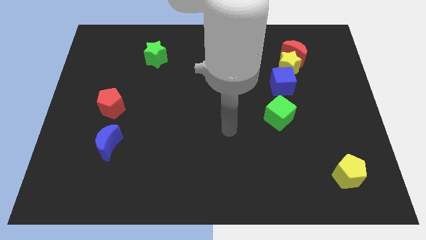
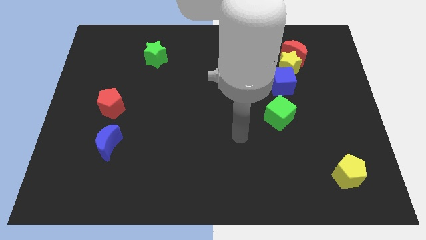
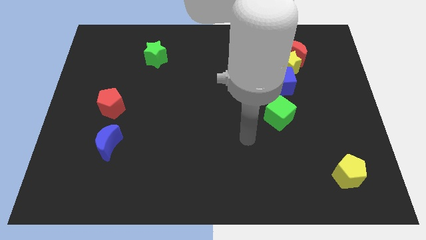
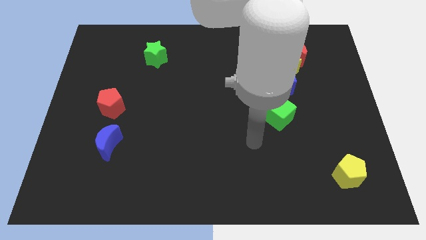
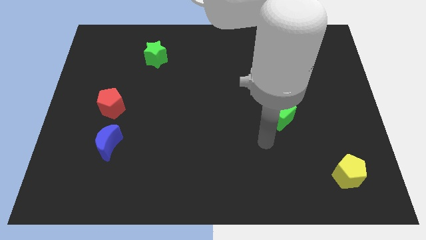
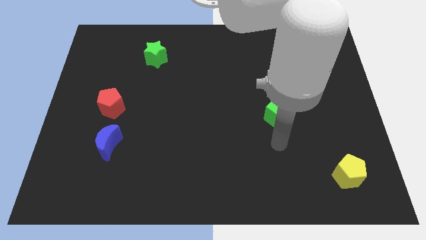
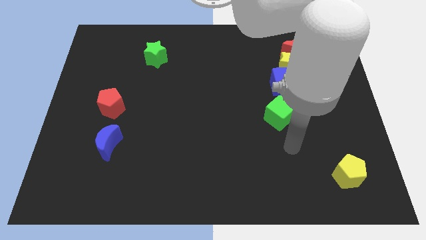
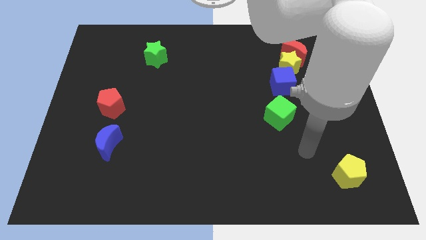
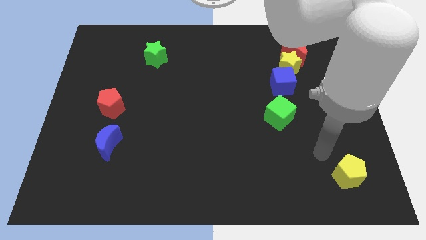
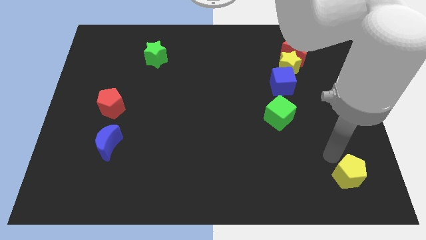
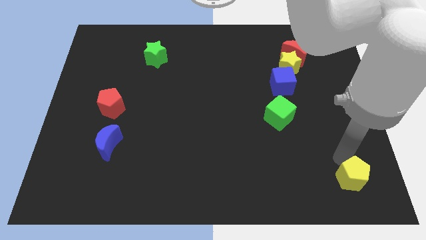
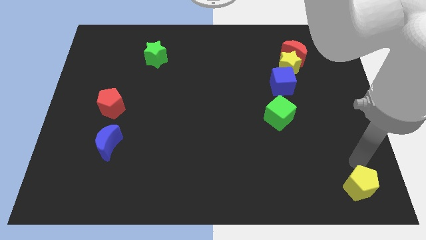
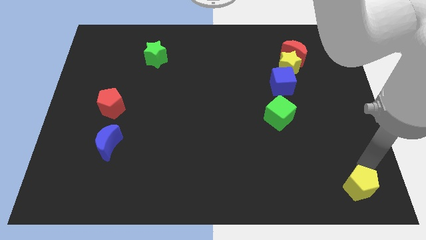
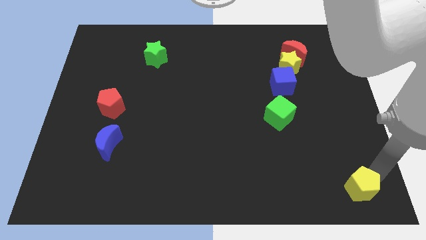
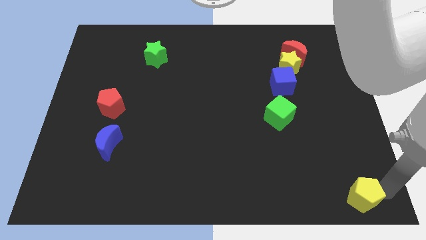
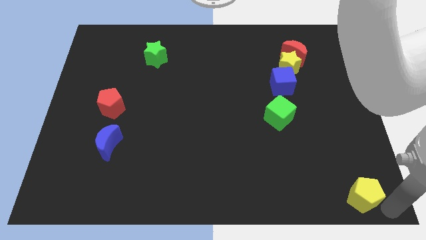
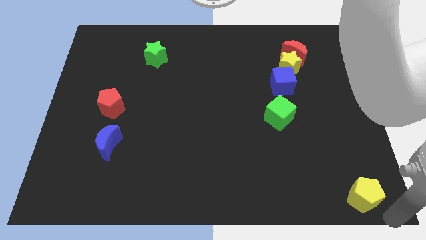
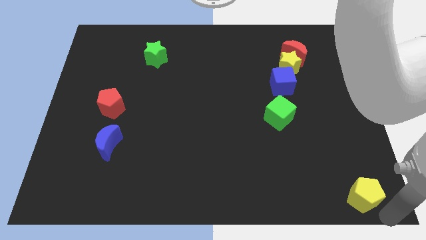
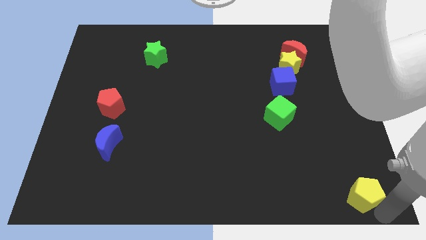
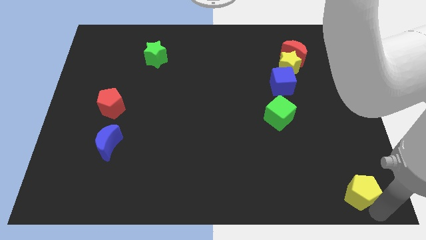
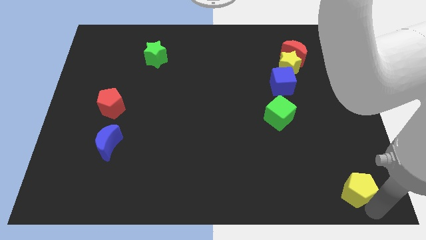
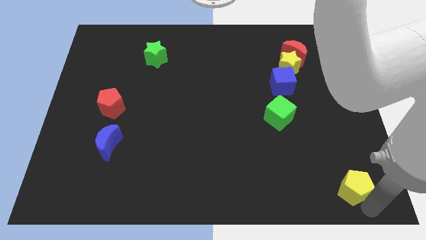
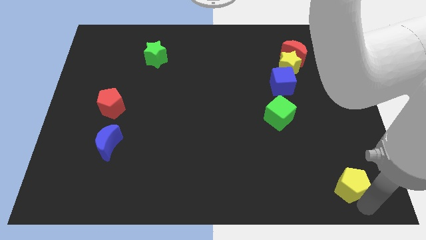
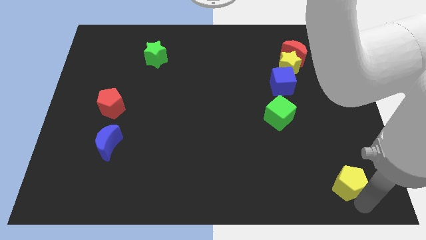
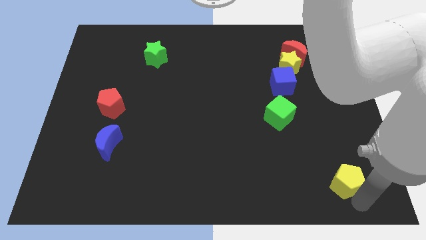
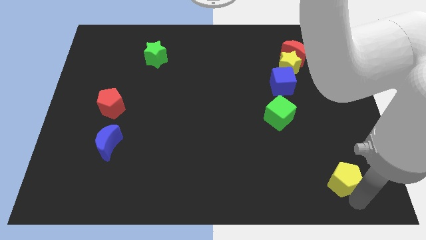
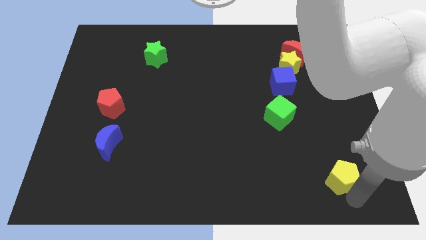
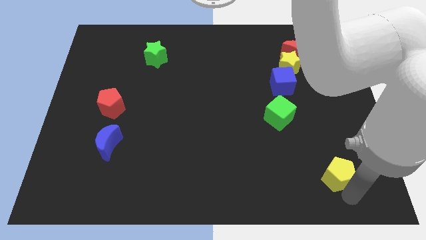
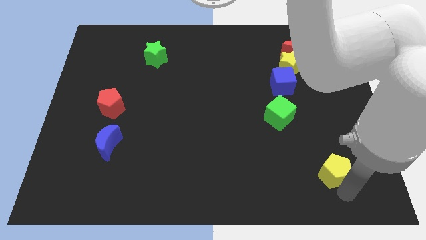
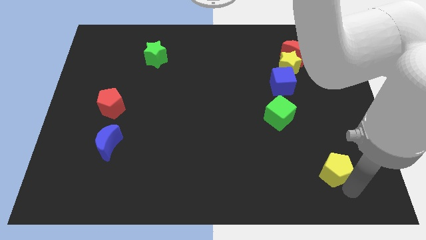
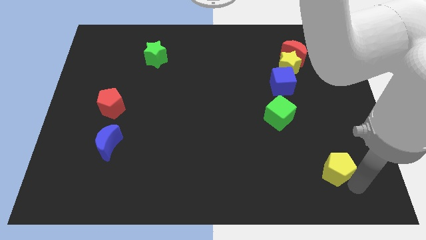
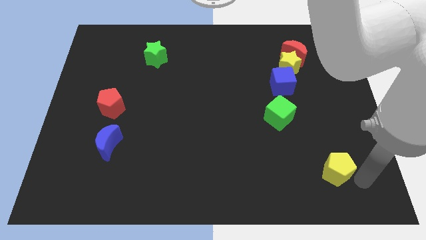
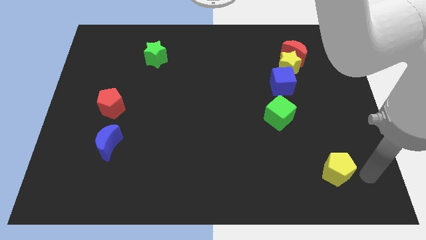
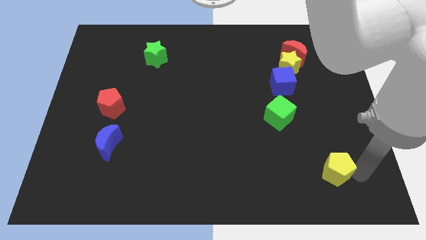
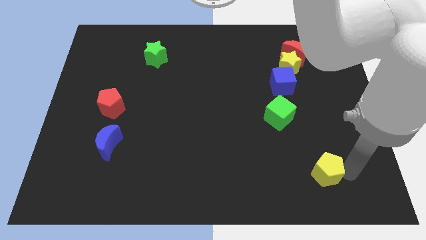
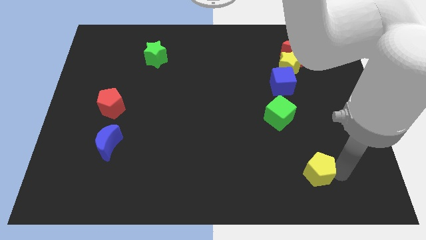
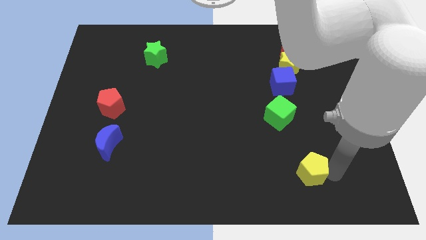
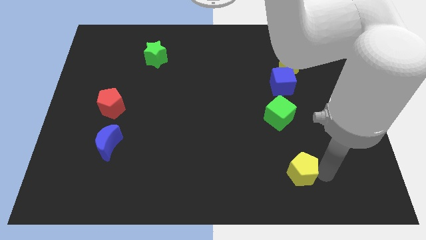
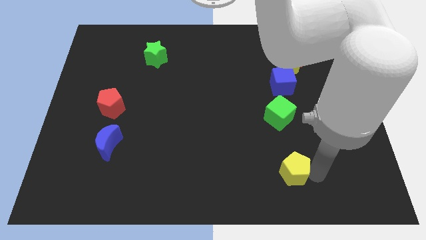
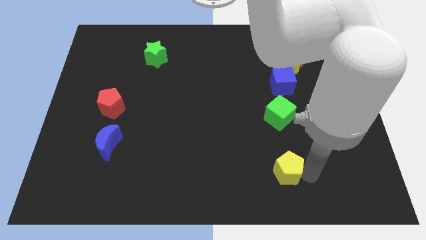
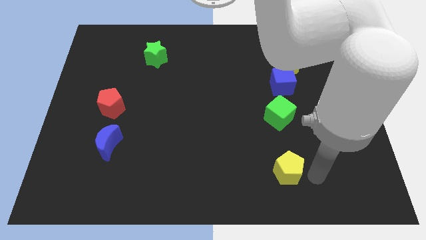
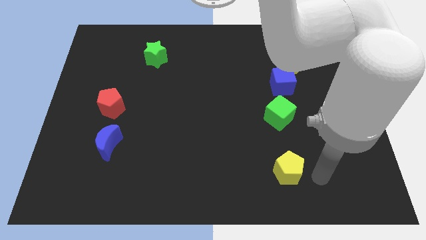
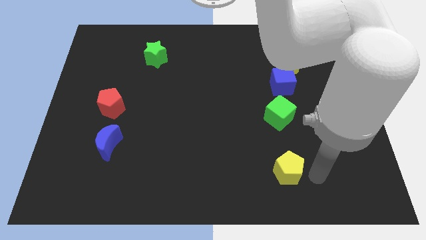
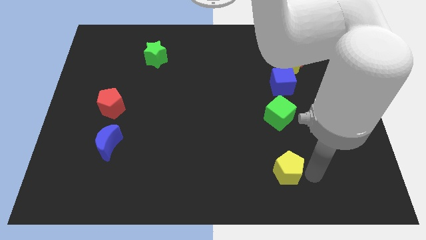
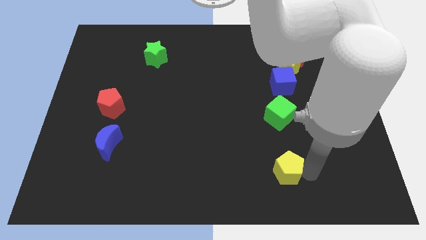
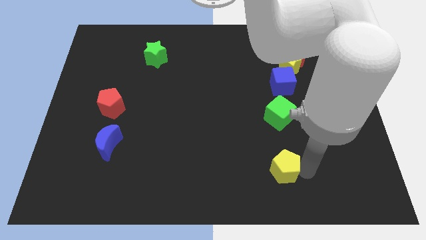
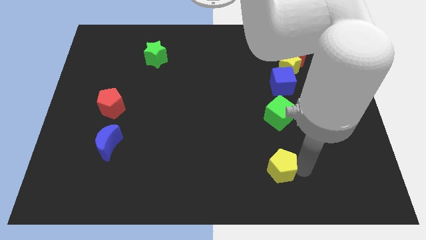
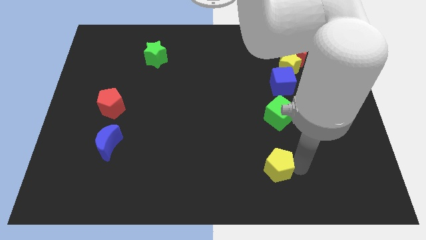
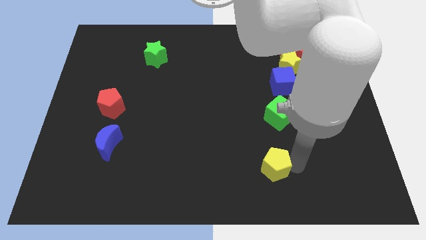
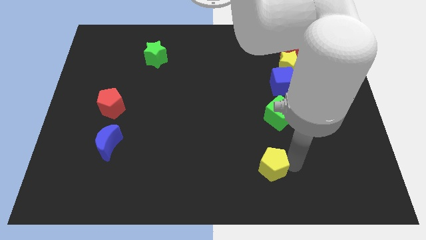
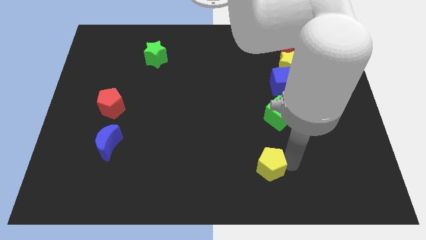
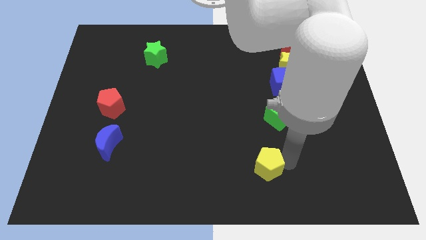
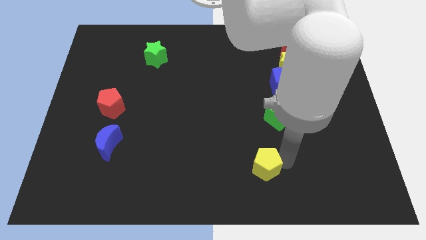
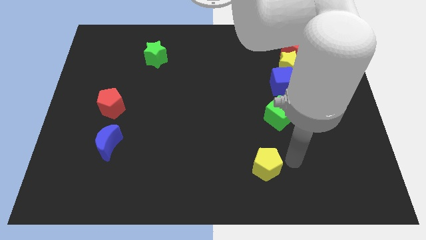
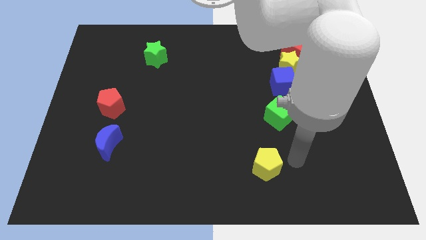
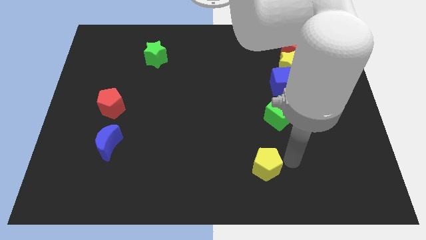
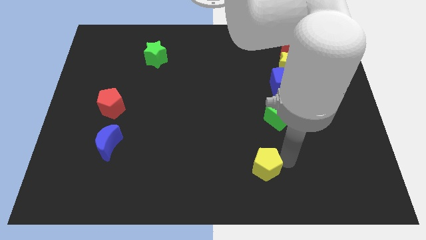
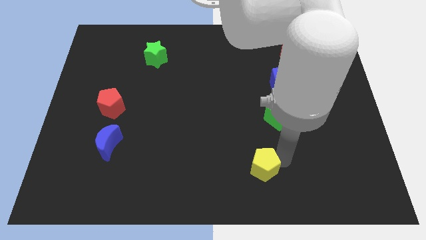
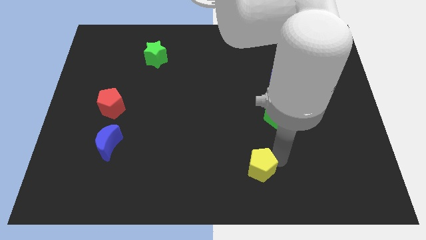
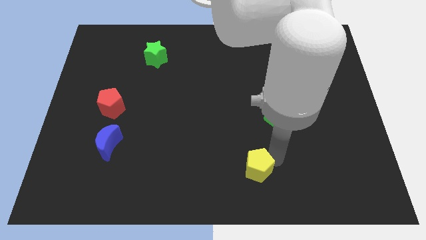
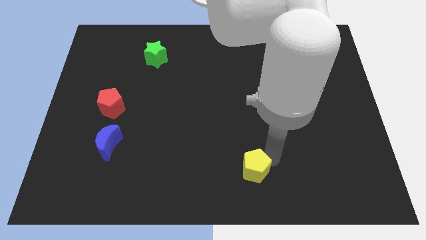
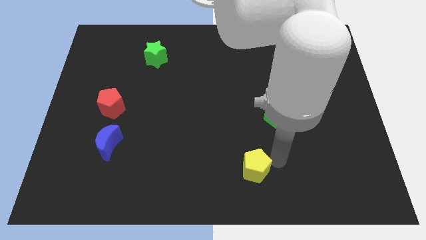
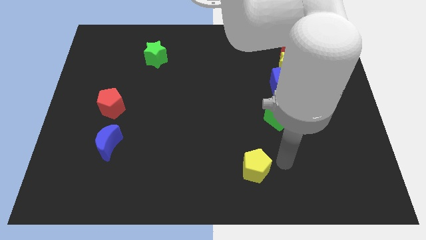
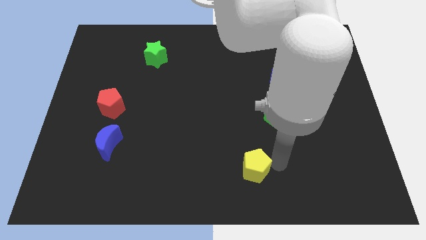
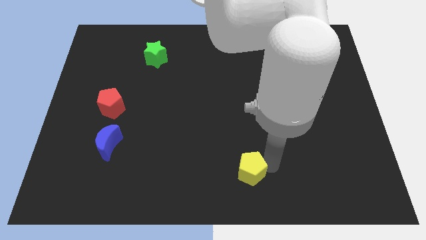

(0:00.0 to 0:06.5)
move the yellow pentagon to the left

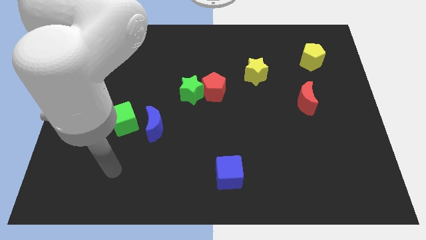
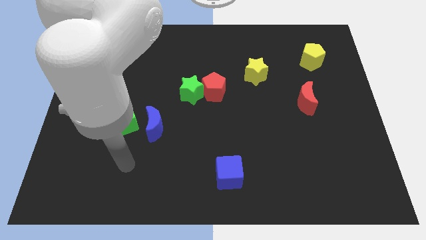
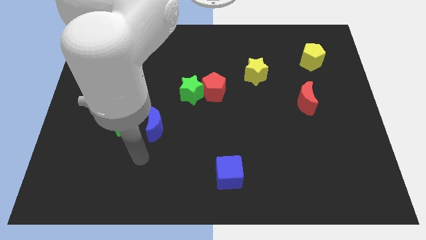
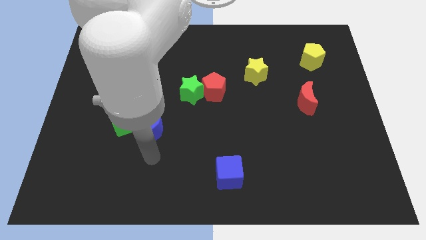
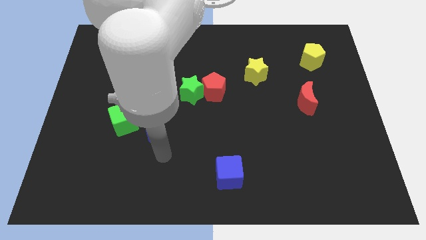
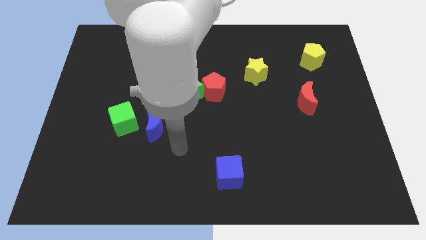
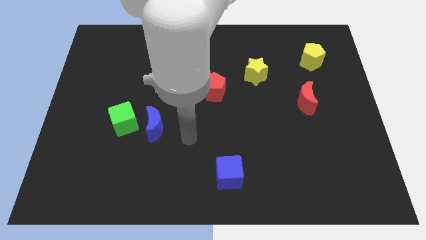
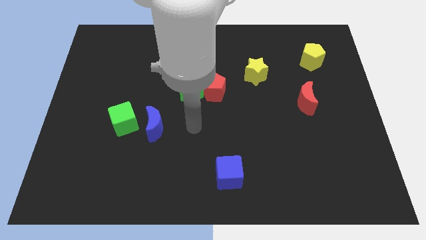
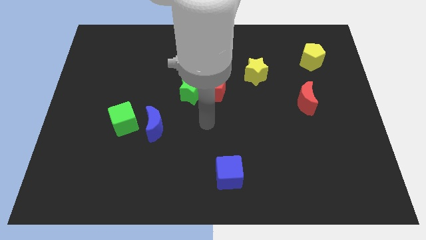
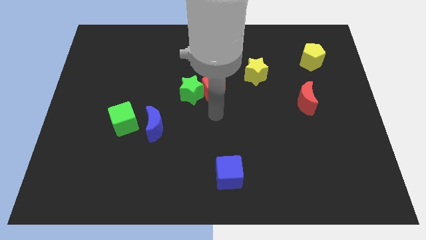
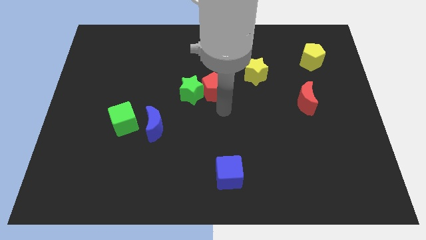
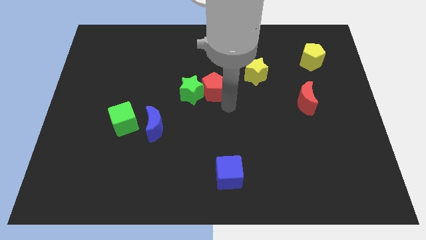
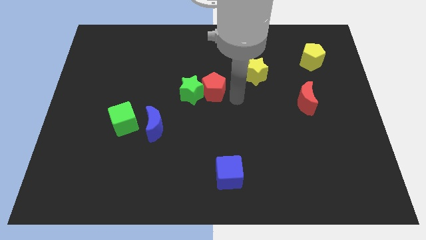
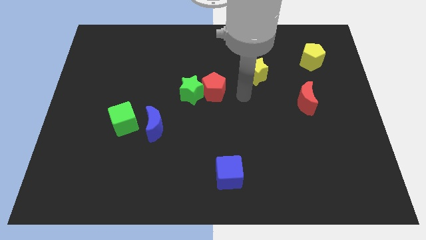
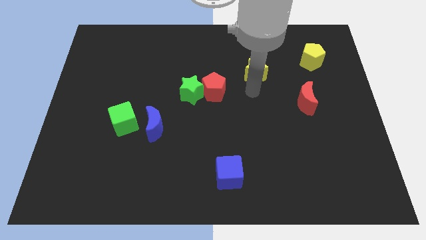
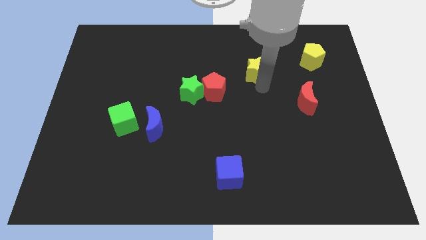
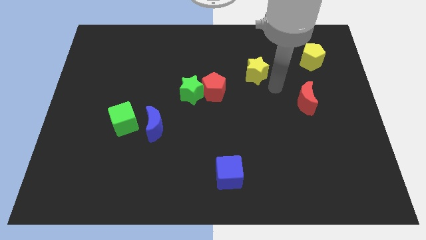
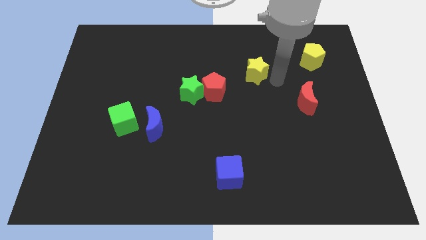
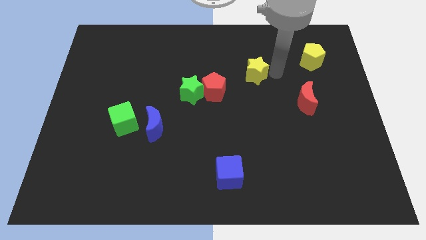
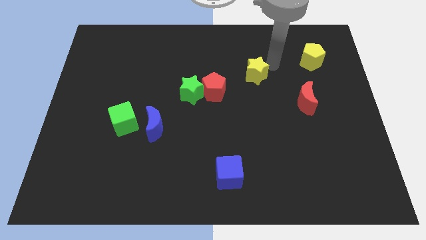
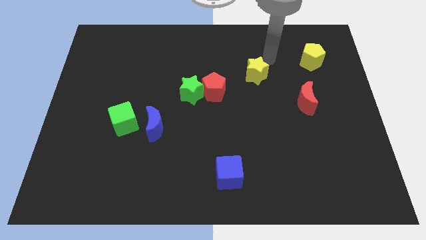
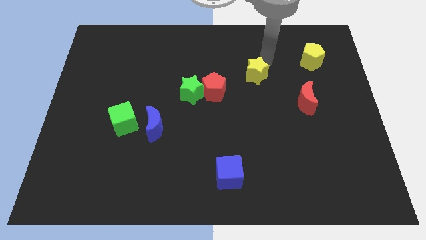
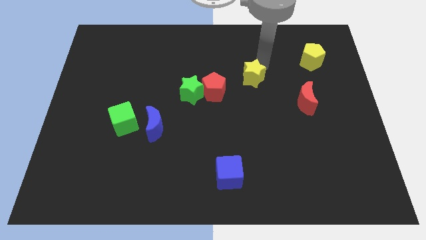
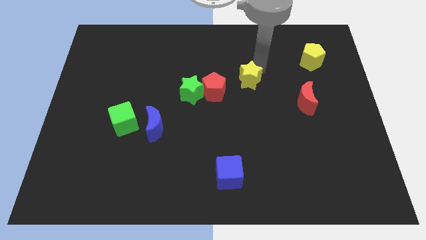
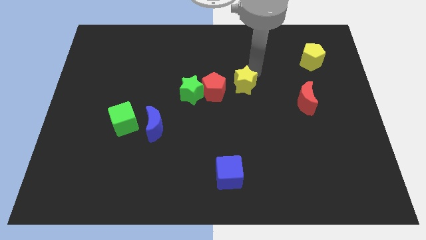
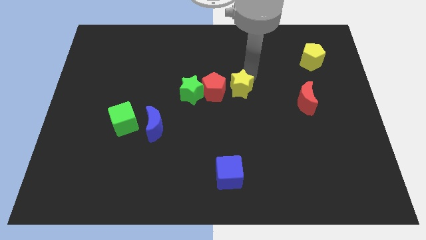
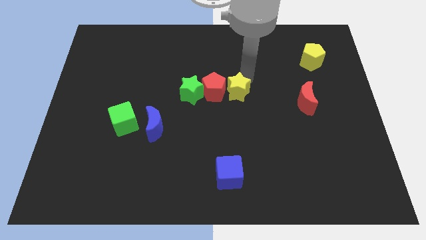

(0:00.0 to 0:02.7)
move the yellow star slightly down and then left
